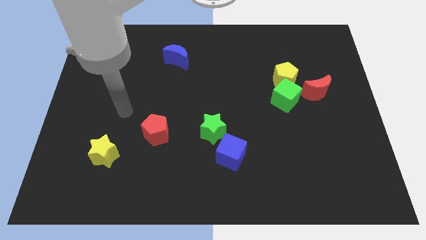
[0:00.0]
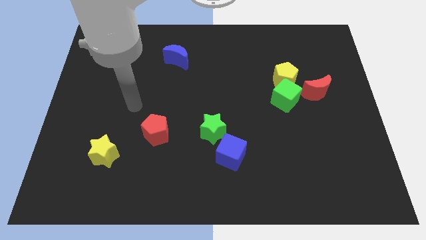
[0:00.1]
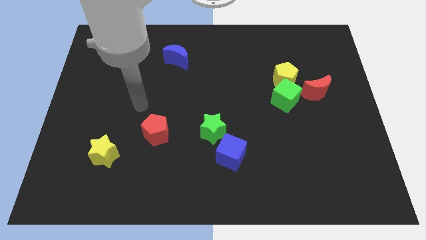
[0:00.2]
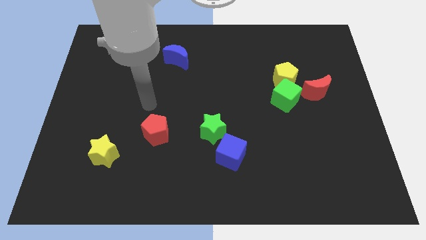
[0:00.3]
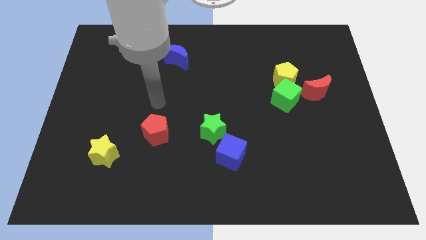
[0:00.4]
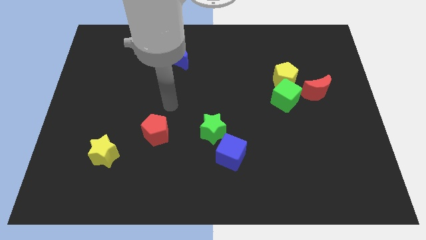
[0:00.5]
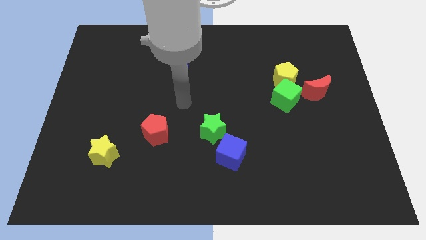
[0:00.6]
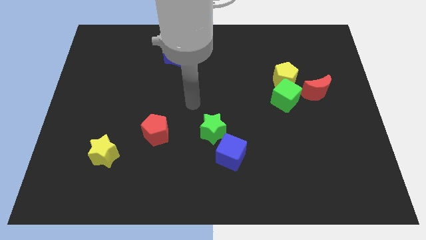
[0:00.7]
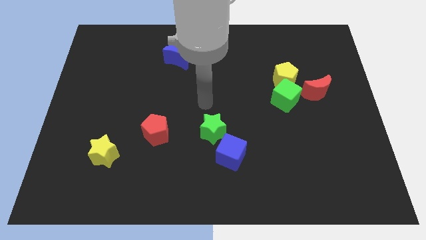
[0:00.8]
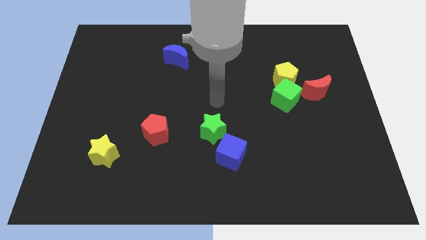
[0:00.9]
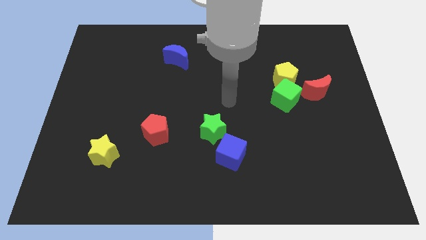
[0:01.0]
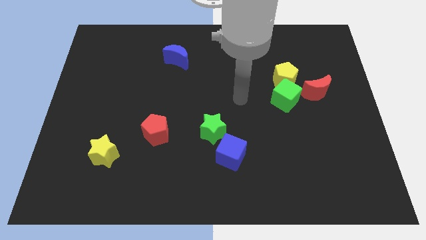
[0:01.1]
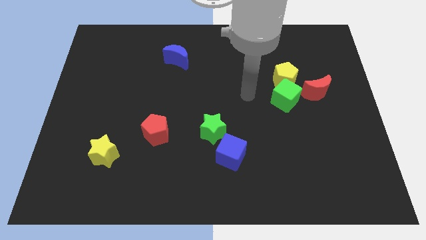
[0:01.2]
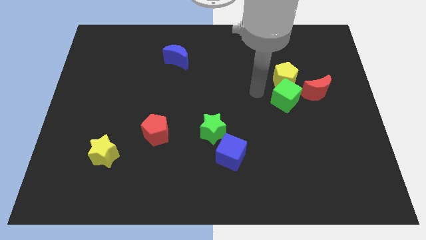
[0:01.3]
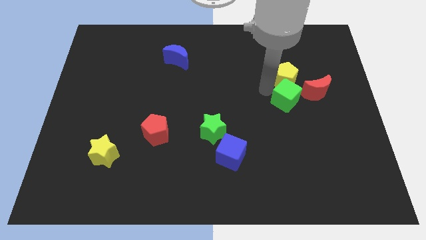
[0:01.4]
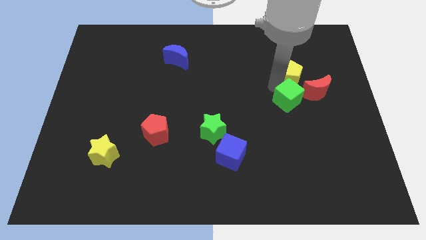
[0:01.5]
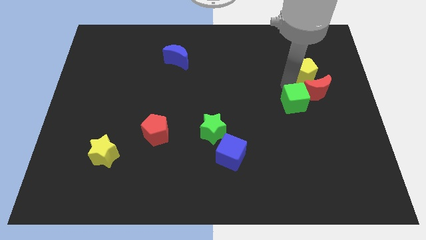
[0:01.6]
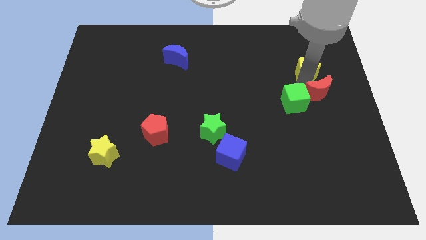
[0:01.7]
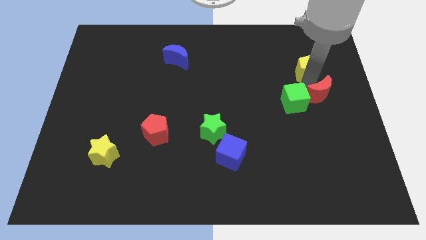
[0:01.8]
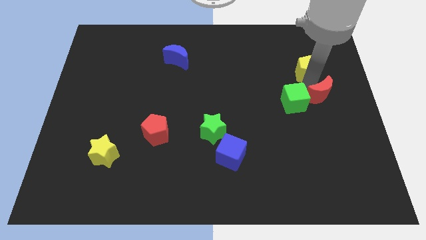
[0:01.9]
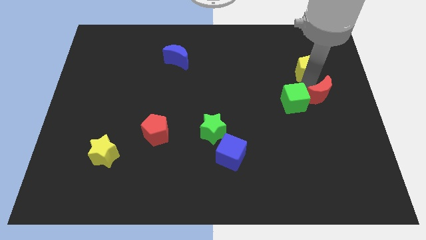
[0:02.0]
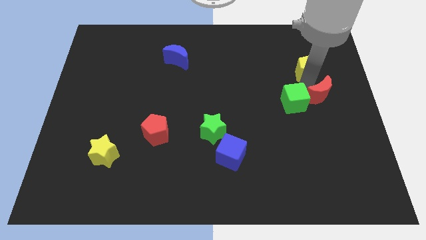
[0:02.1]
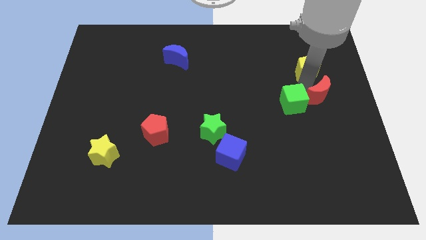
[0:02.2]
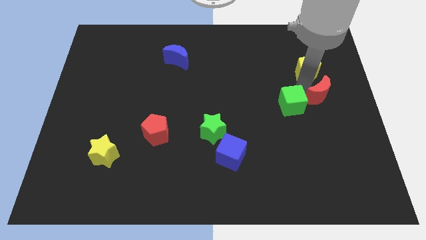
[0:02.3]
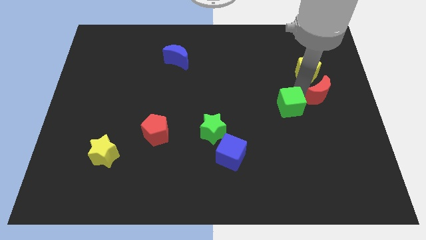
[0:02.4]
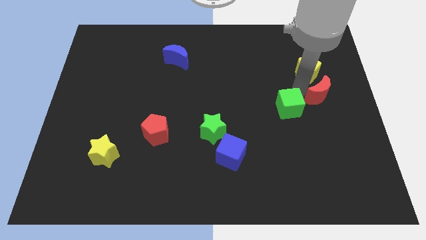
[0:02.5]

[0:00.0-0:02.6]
move the green cube away from the yellow pentagon and red moon

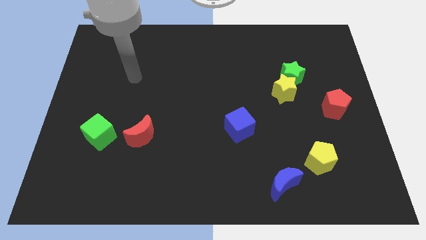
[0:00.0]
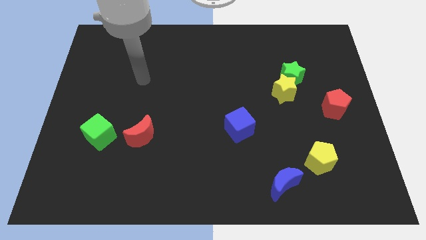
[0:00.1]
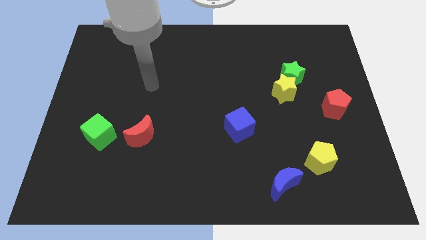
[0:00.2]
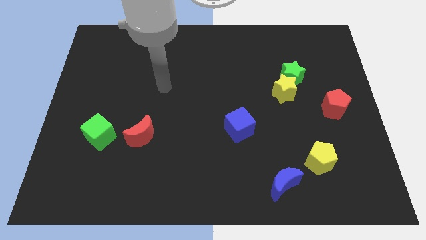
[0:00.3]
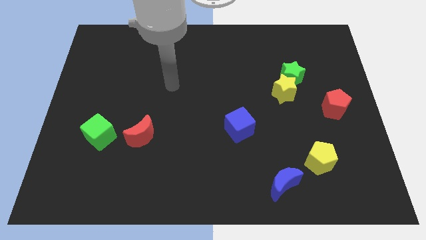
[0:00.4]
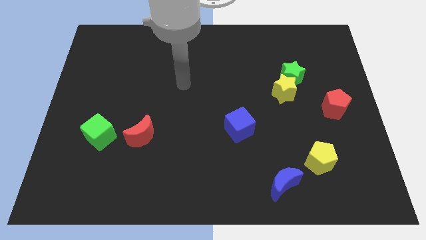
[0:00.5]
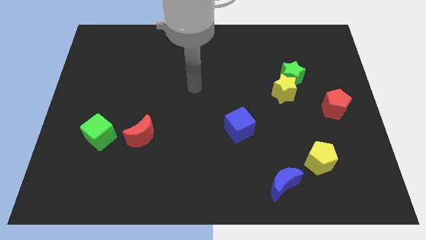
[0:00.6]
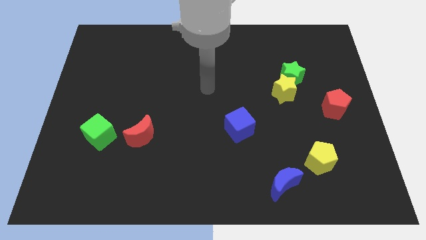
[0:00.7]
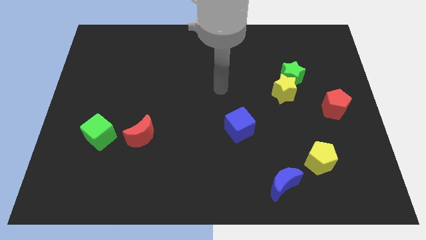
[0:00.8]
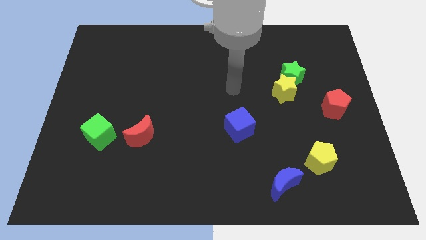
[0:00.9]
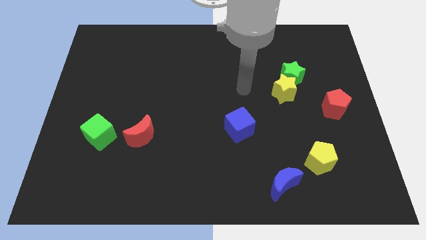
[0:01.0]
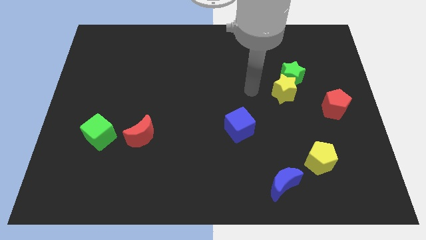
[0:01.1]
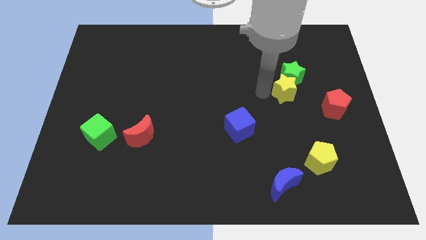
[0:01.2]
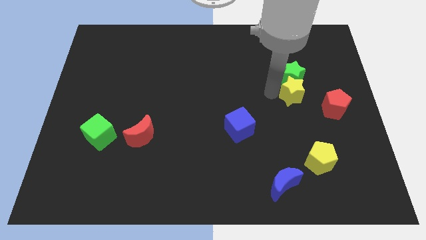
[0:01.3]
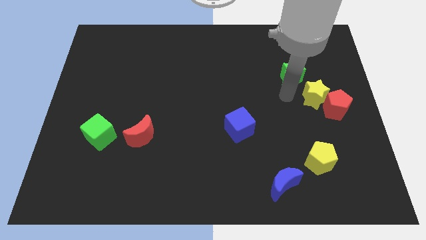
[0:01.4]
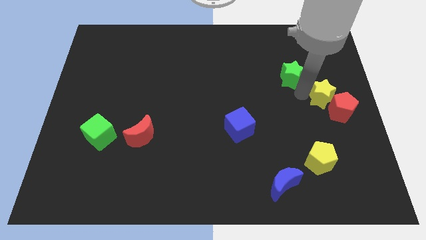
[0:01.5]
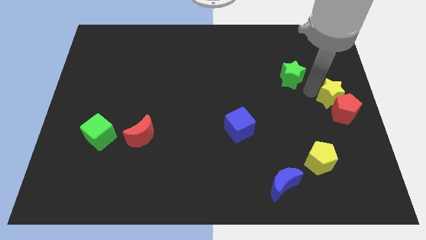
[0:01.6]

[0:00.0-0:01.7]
move the green star away from the yellow star

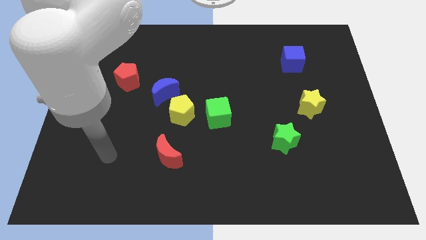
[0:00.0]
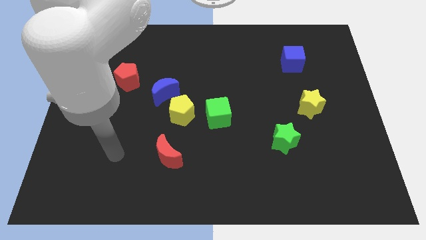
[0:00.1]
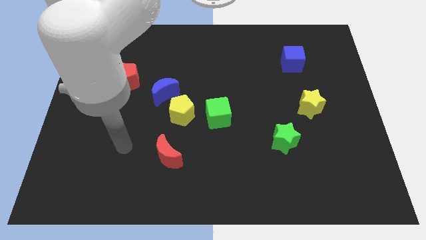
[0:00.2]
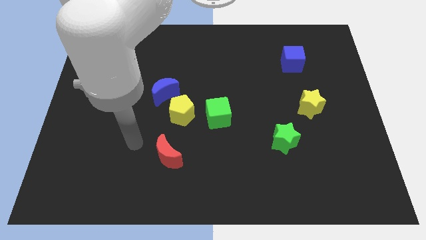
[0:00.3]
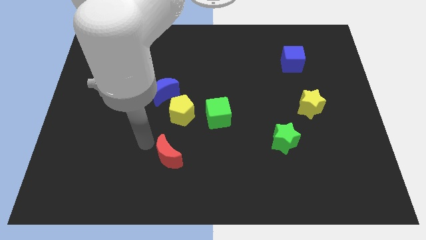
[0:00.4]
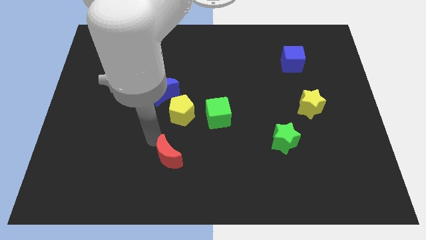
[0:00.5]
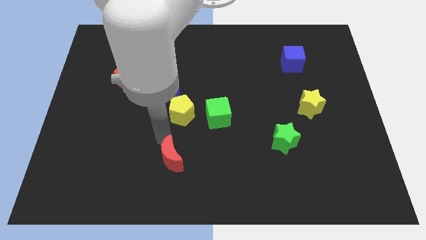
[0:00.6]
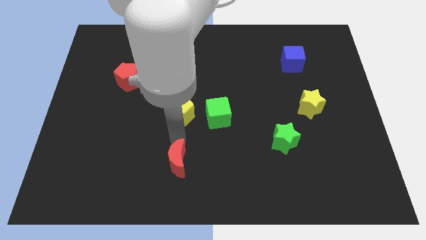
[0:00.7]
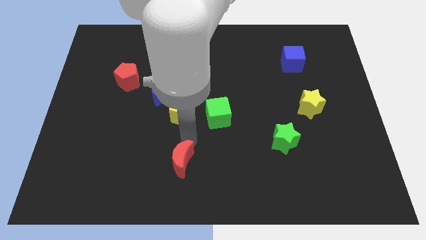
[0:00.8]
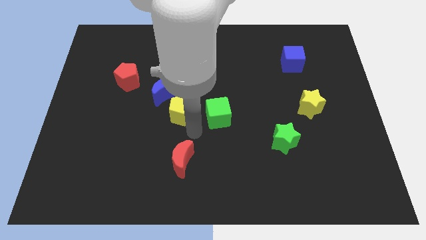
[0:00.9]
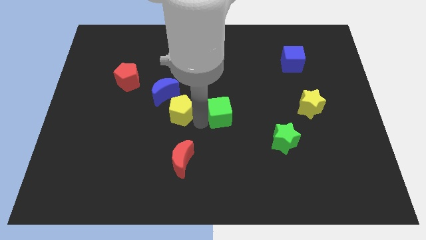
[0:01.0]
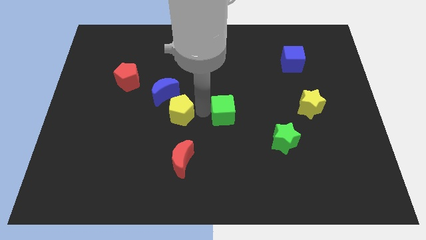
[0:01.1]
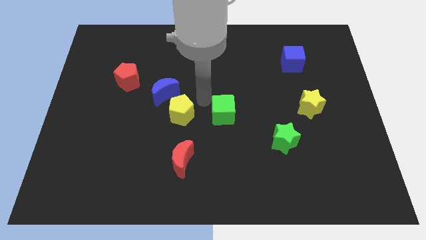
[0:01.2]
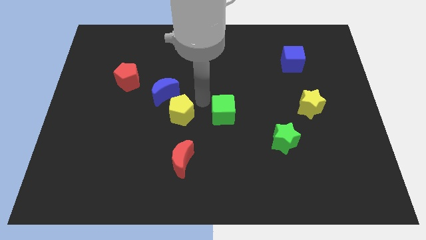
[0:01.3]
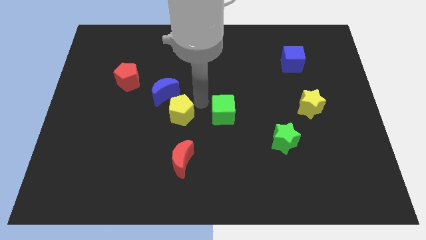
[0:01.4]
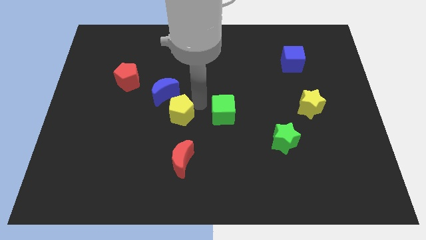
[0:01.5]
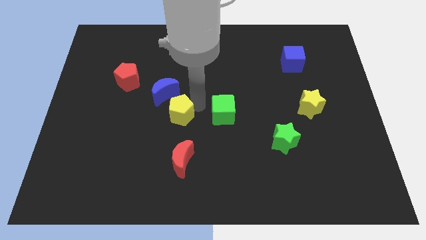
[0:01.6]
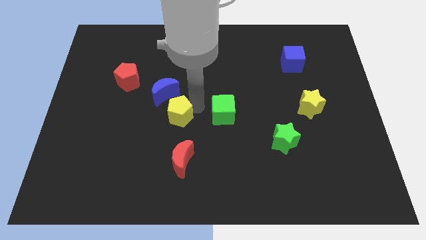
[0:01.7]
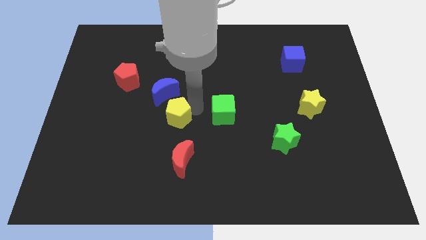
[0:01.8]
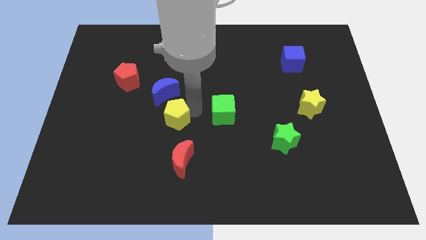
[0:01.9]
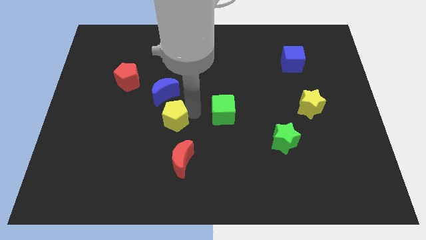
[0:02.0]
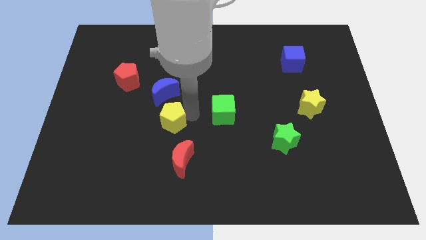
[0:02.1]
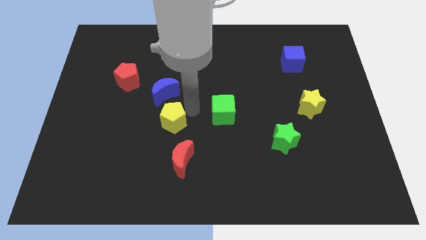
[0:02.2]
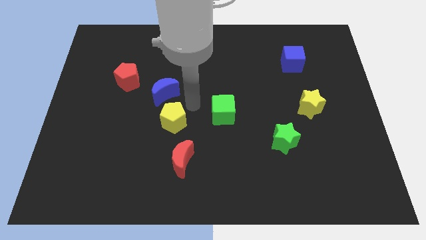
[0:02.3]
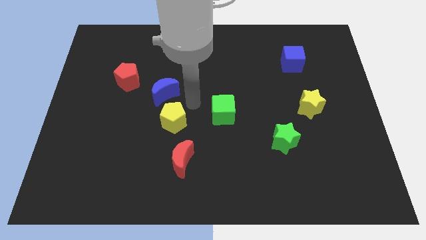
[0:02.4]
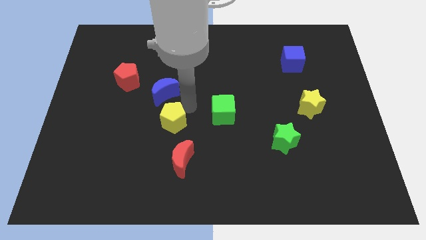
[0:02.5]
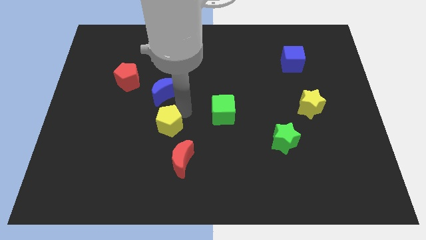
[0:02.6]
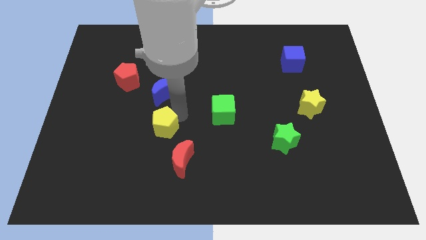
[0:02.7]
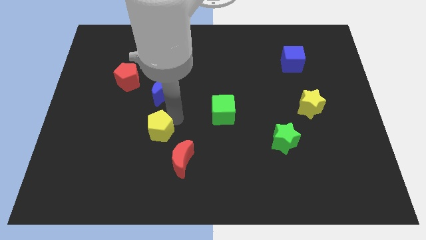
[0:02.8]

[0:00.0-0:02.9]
separate the yellow pentagon from the blue moon and green cube

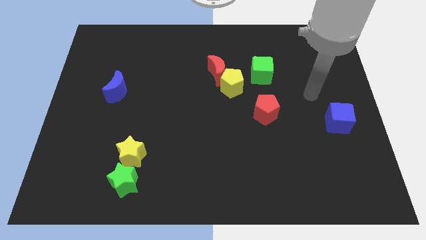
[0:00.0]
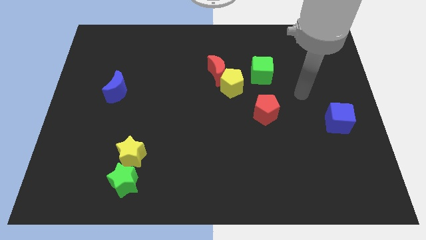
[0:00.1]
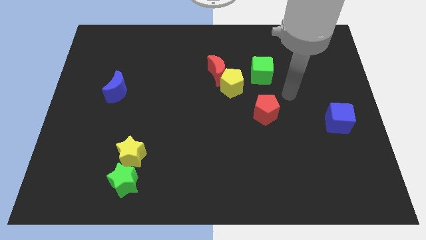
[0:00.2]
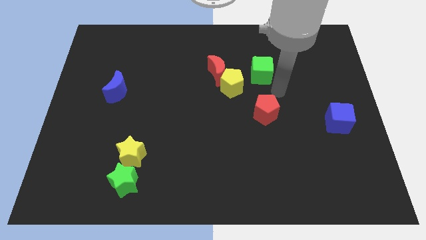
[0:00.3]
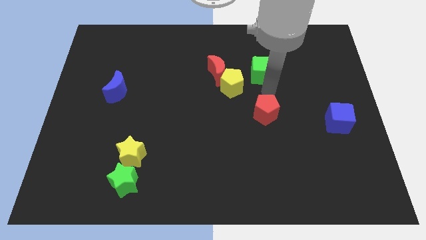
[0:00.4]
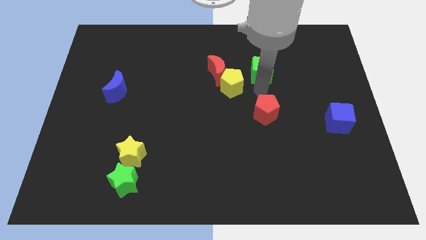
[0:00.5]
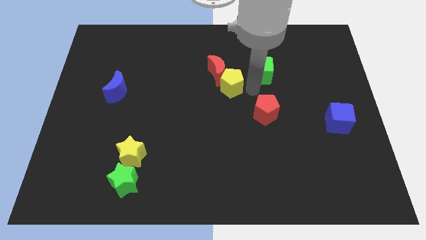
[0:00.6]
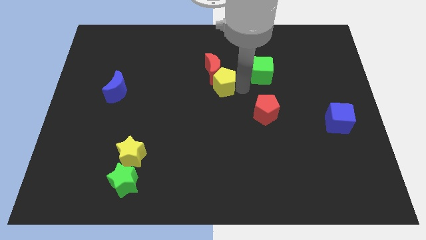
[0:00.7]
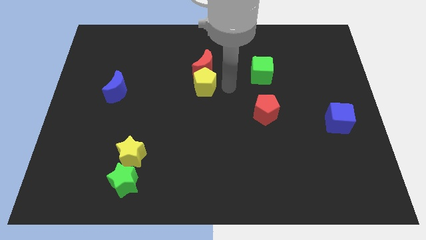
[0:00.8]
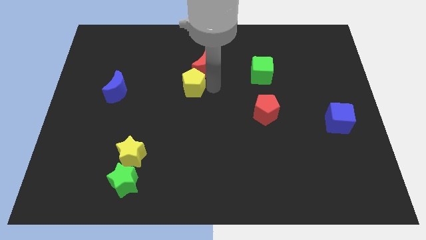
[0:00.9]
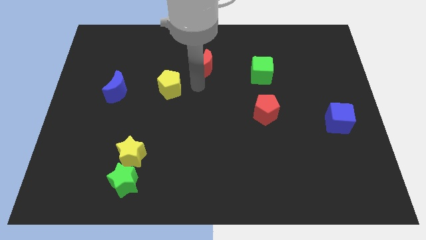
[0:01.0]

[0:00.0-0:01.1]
move the red moon away from the yellow pentagon

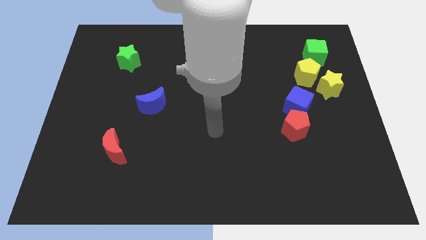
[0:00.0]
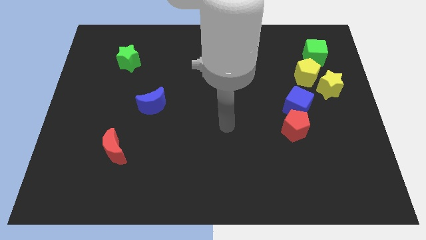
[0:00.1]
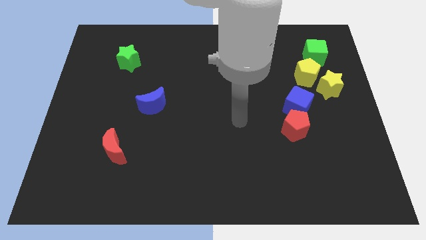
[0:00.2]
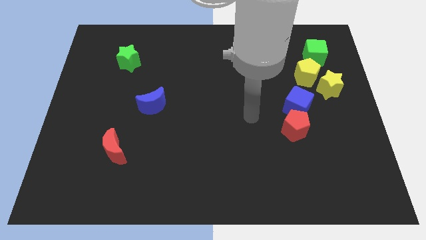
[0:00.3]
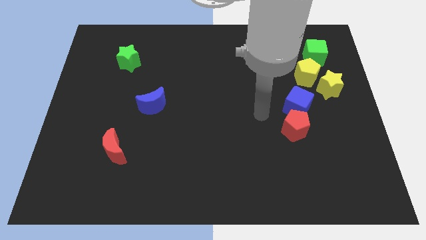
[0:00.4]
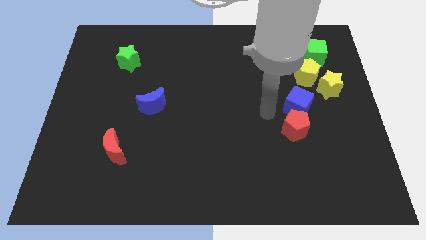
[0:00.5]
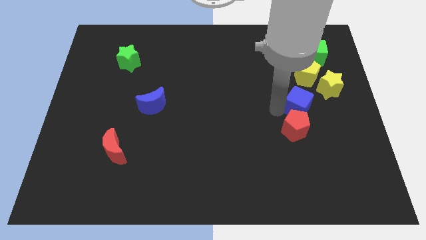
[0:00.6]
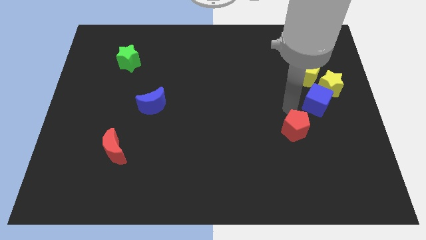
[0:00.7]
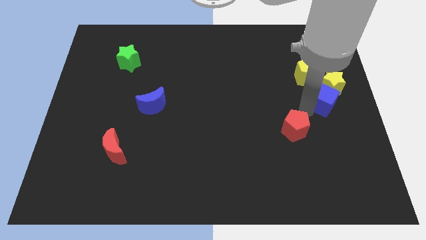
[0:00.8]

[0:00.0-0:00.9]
move the red pentagon away from the blue cube
